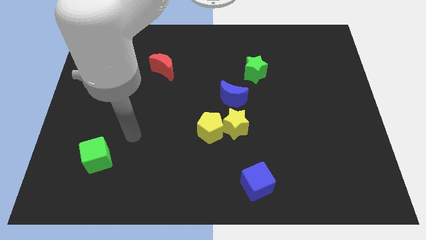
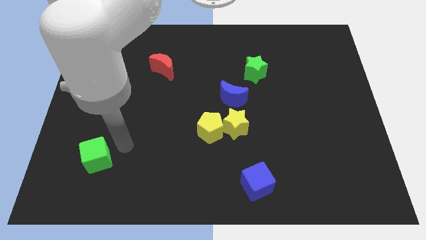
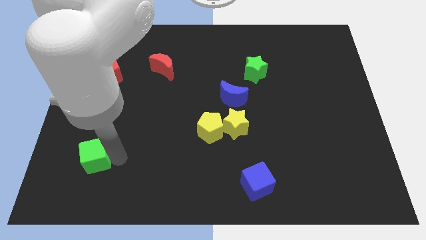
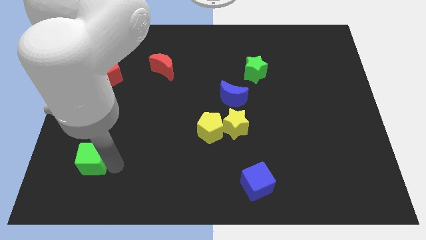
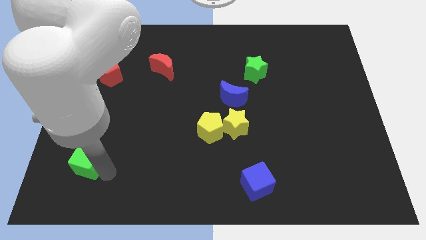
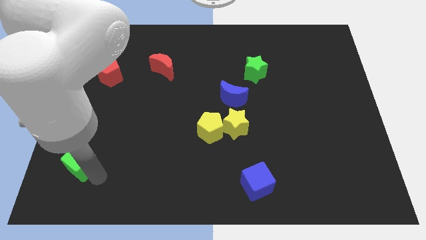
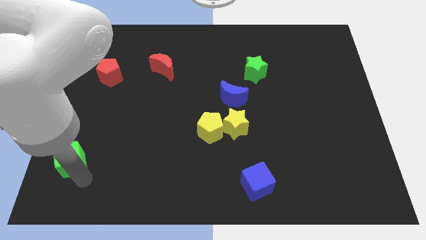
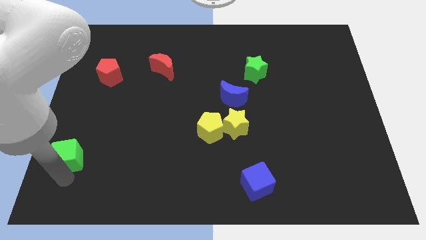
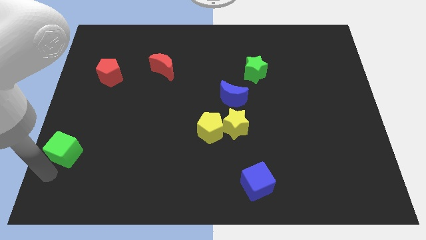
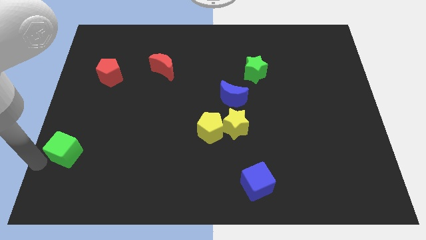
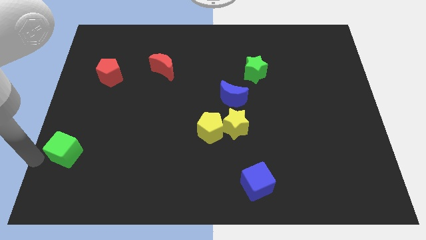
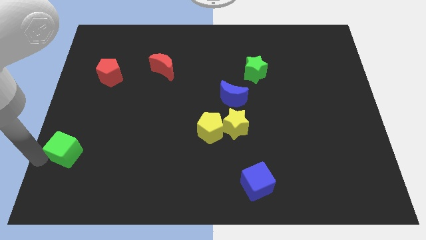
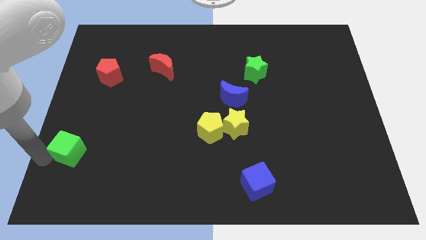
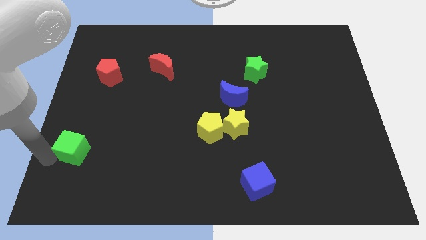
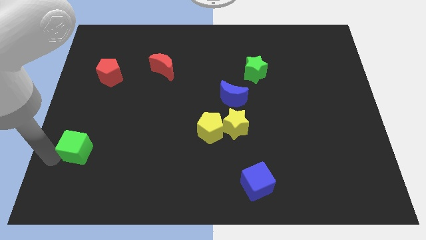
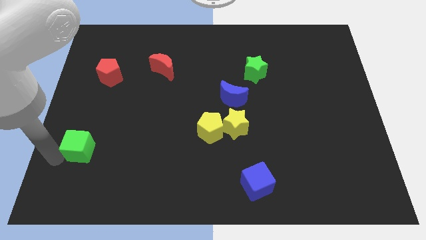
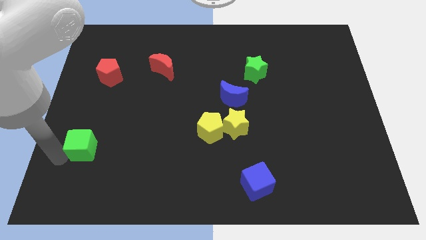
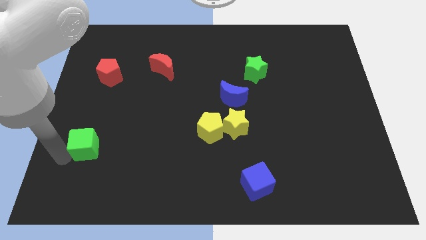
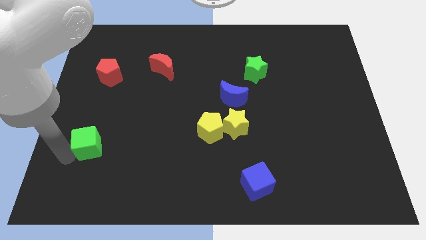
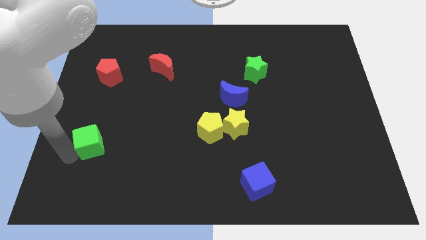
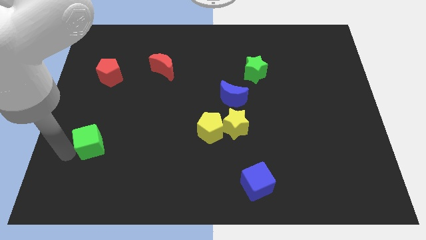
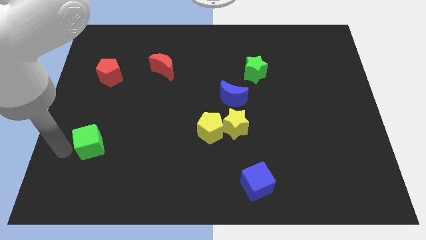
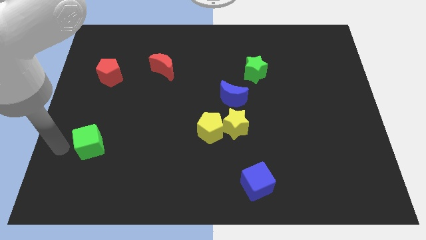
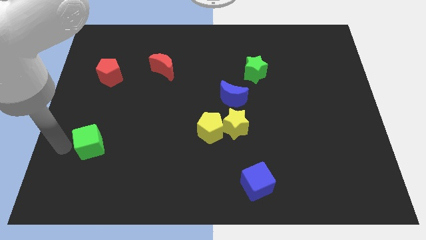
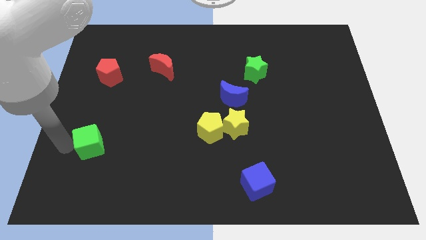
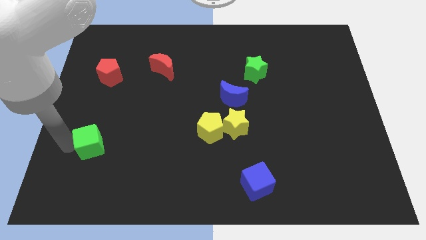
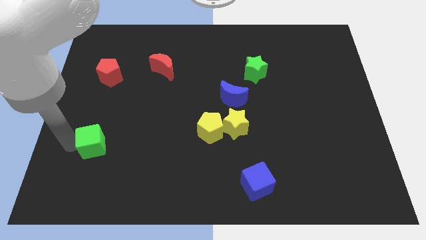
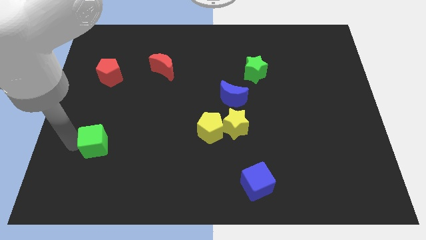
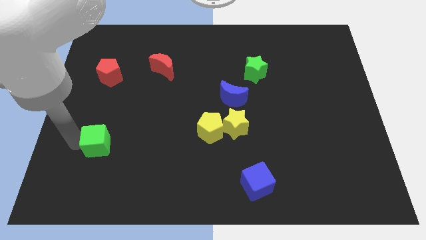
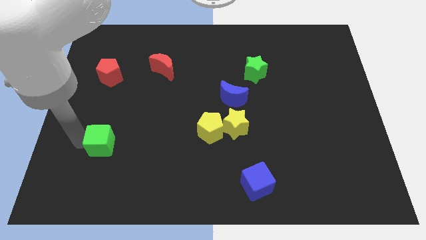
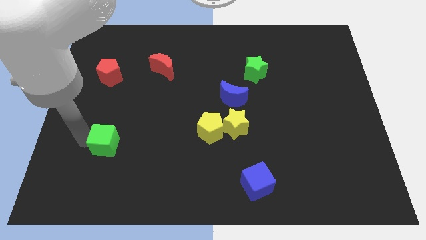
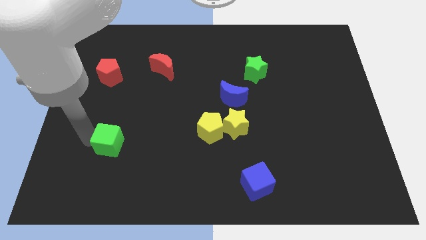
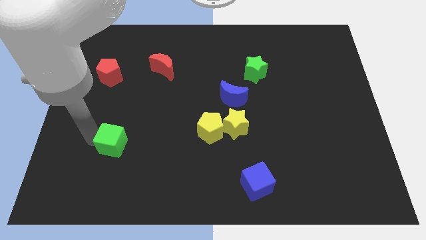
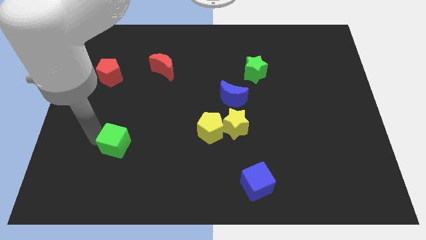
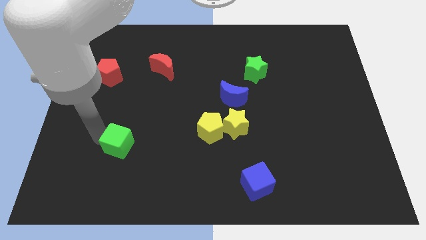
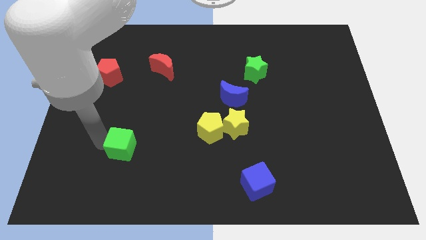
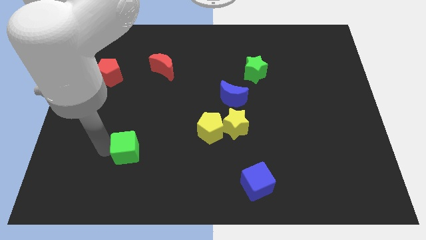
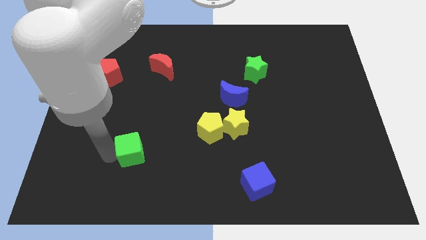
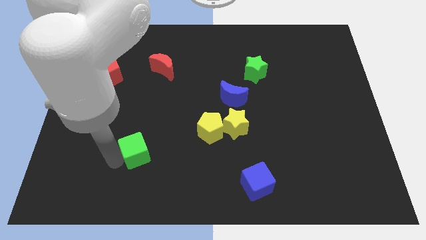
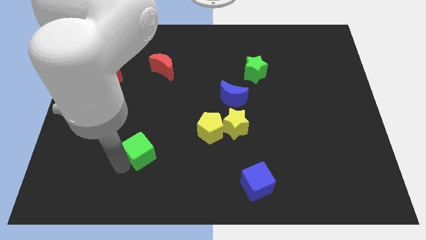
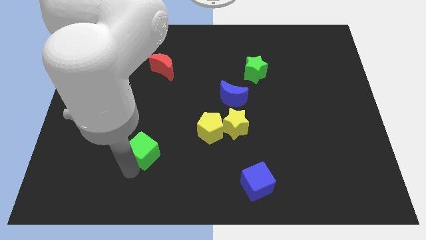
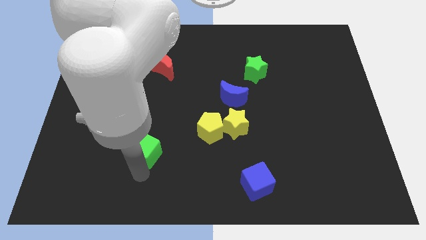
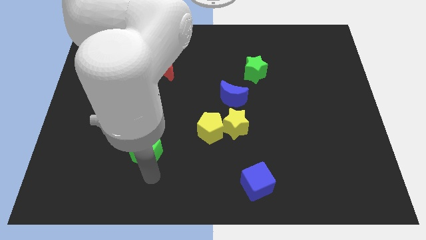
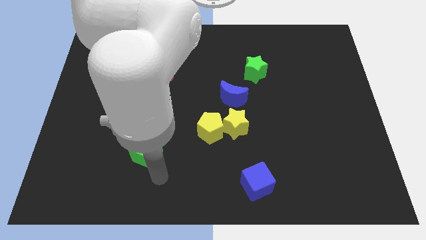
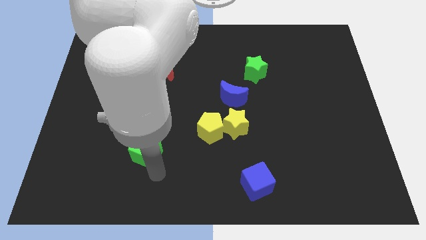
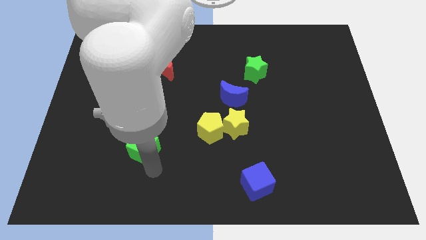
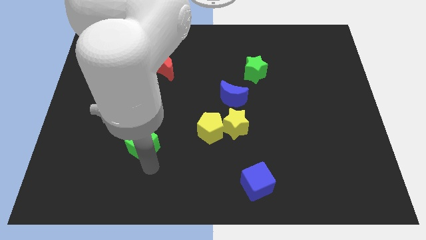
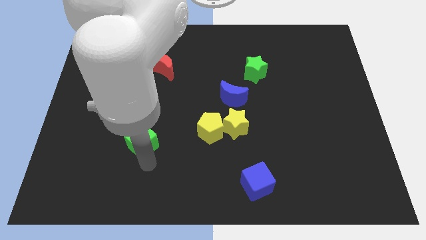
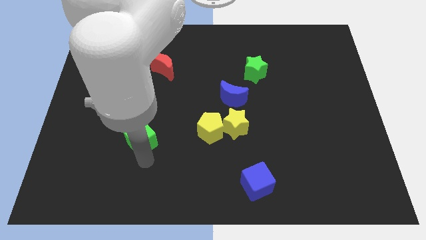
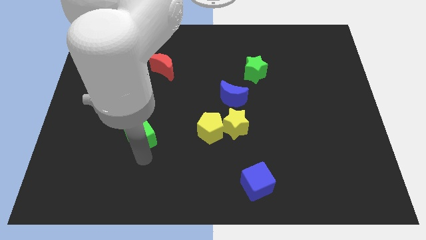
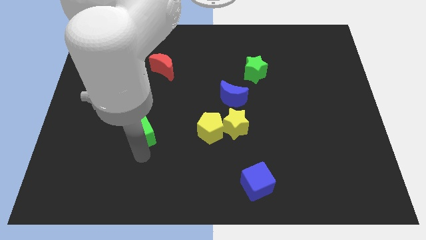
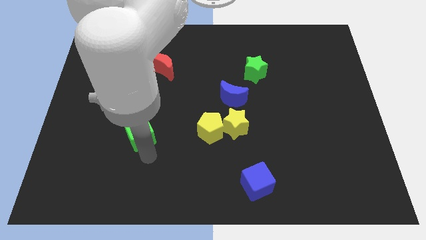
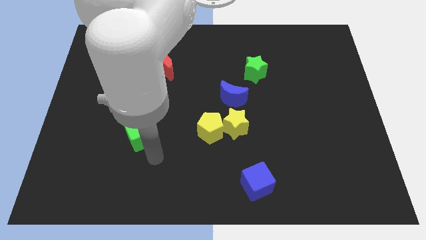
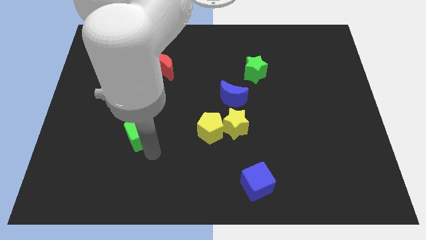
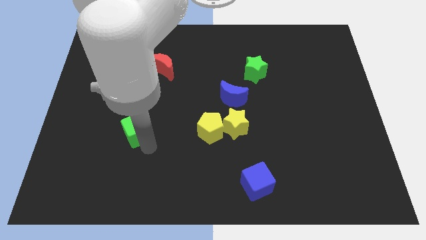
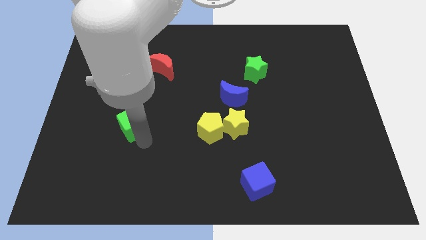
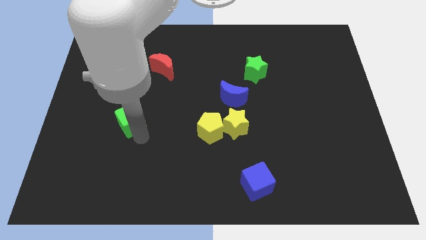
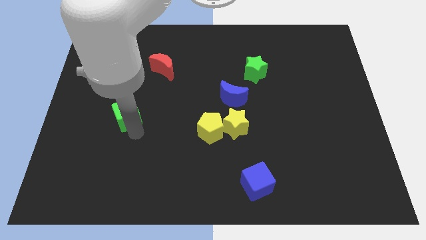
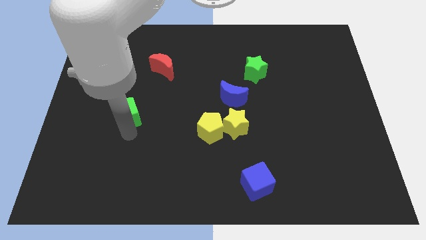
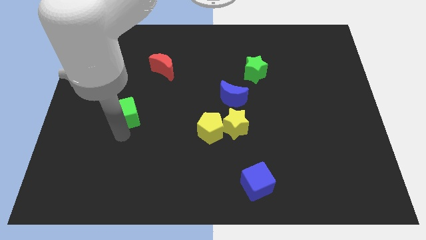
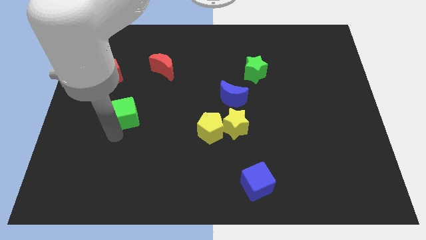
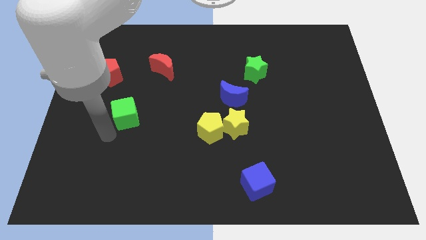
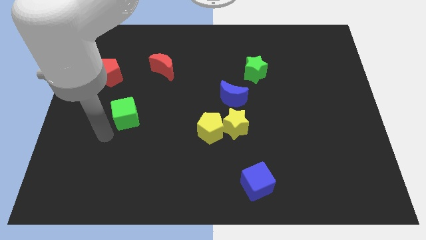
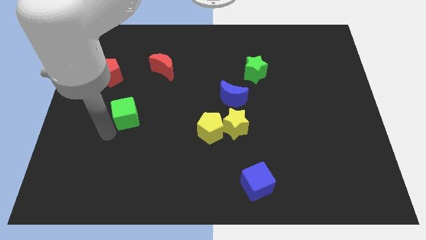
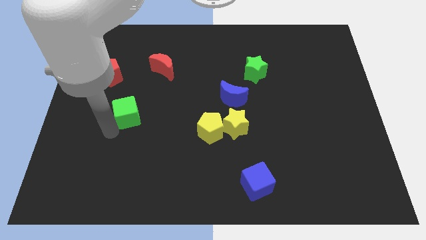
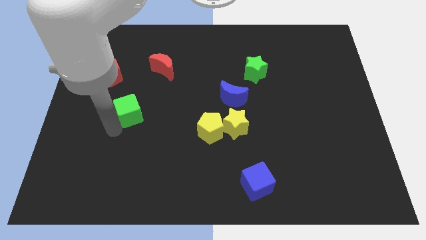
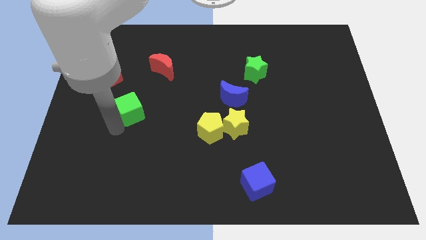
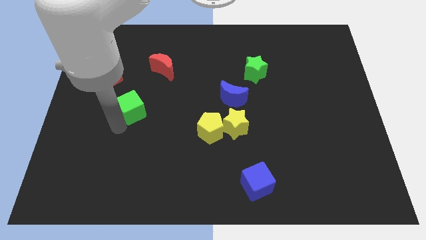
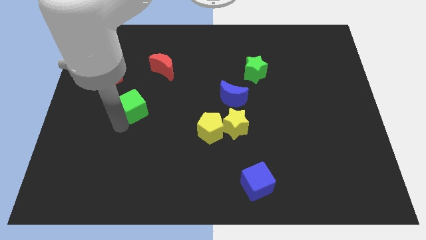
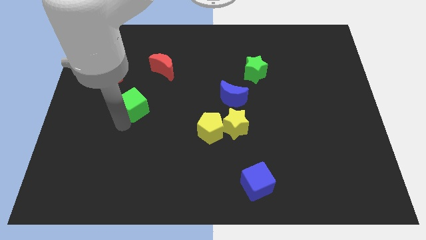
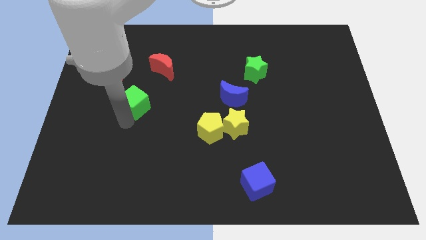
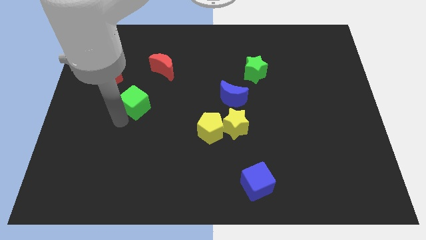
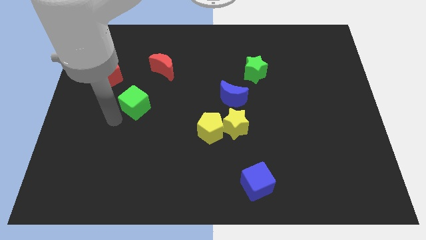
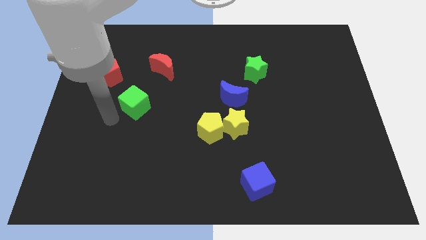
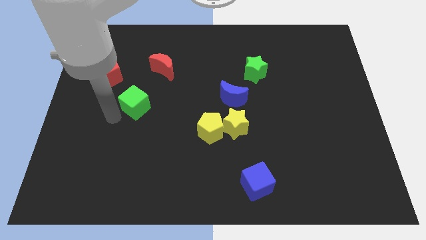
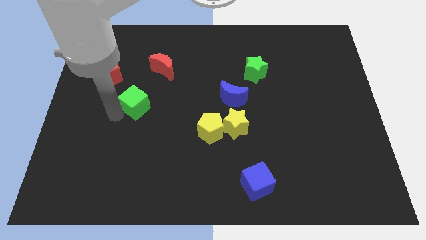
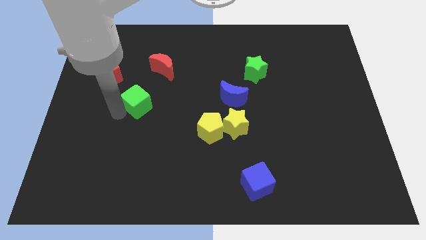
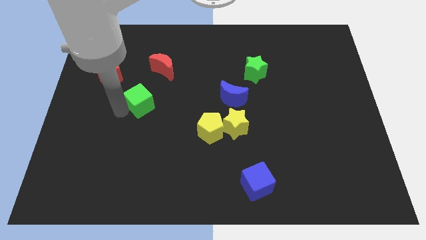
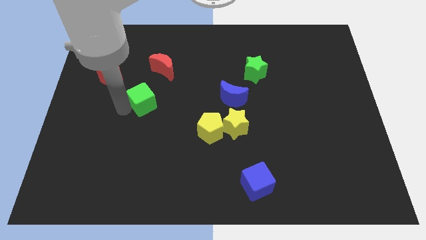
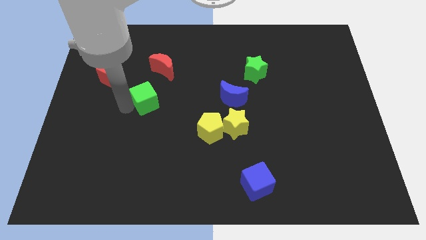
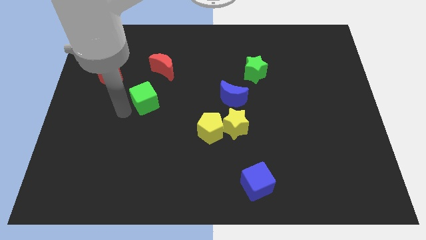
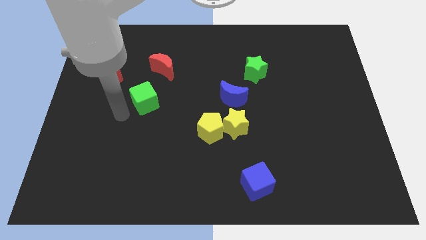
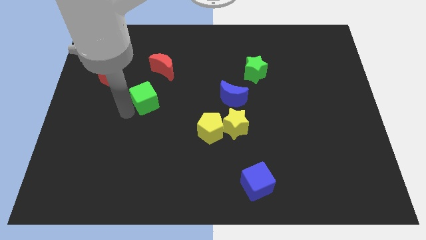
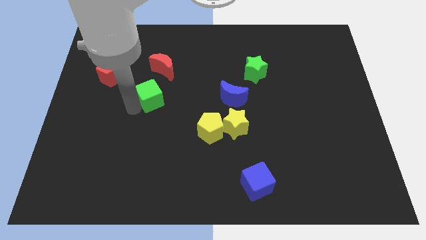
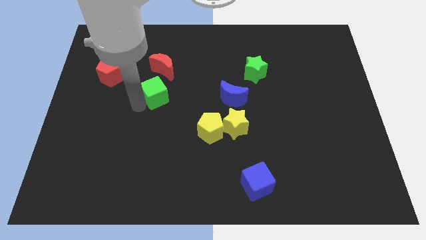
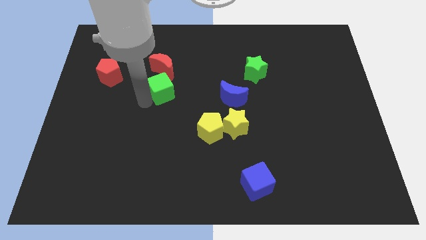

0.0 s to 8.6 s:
move the green cube diagonally upwards and to the right
